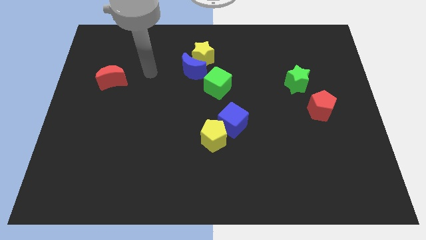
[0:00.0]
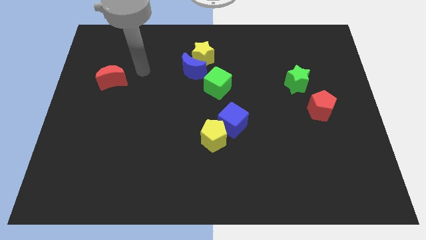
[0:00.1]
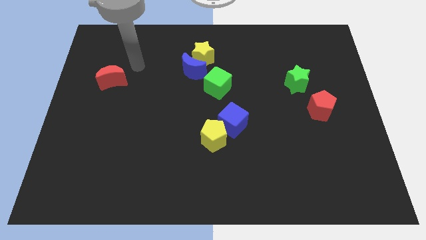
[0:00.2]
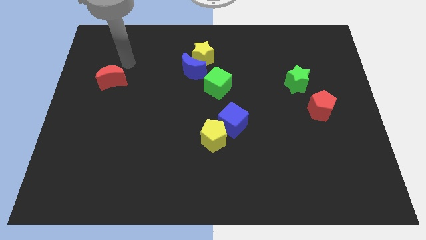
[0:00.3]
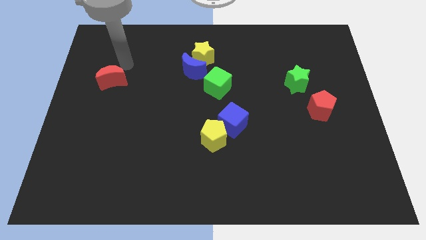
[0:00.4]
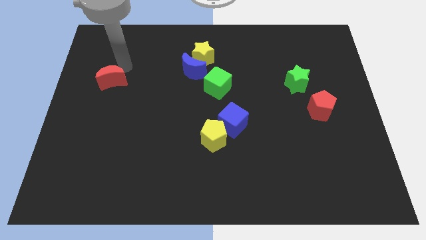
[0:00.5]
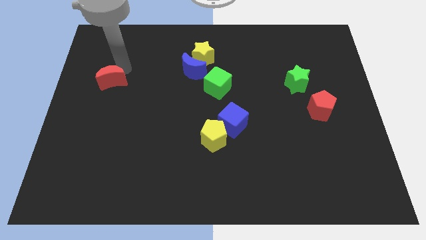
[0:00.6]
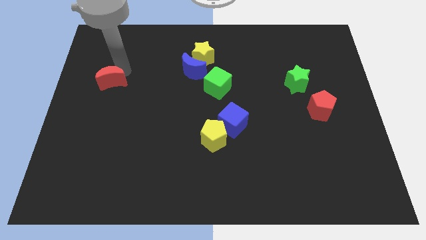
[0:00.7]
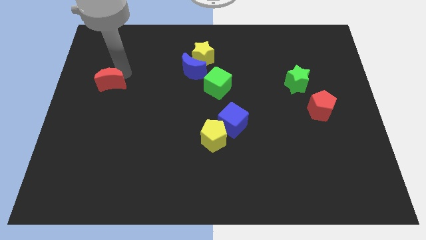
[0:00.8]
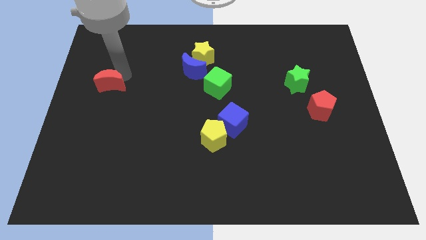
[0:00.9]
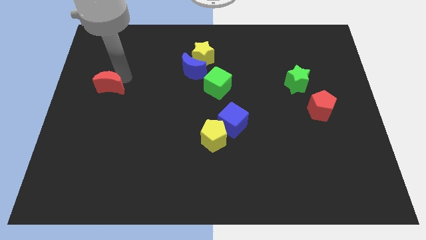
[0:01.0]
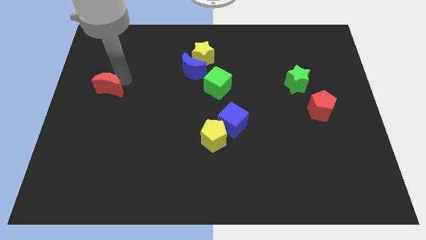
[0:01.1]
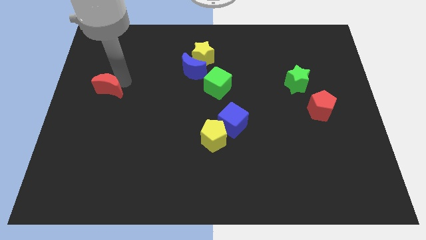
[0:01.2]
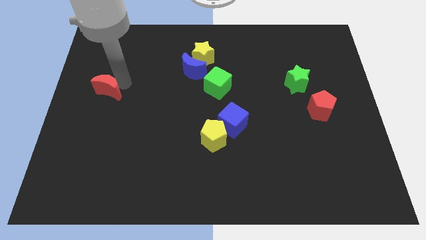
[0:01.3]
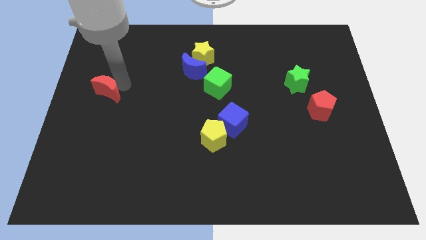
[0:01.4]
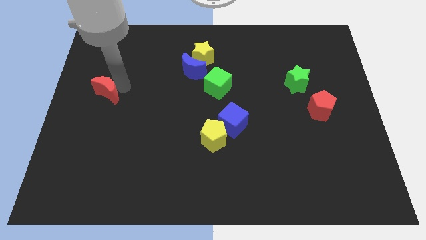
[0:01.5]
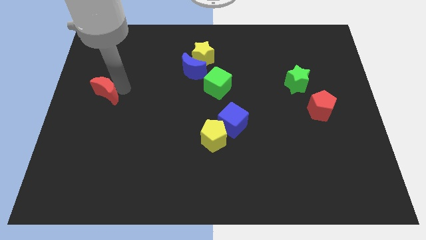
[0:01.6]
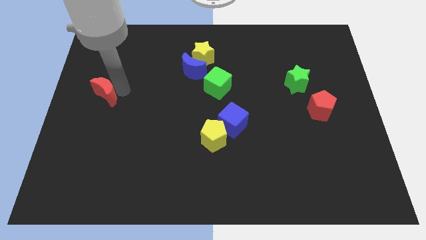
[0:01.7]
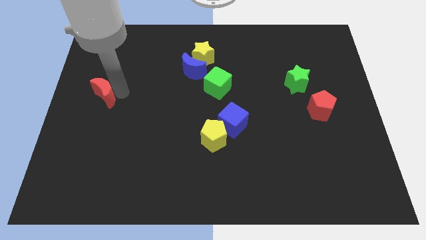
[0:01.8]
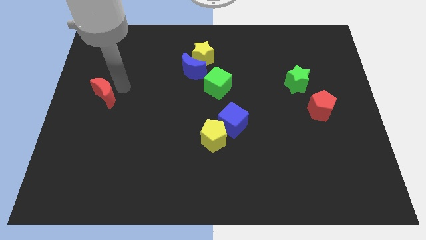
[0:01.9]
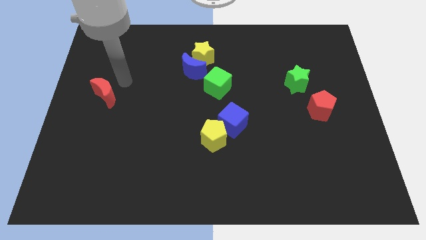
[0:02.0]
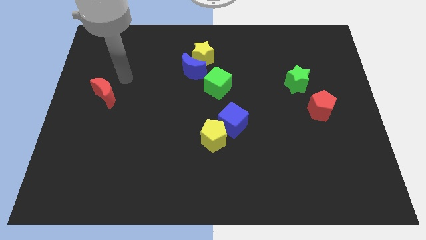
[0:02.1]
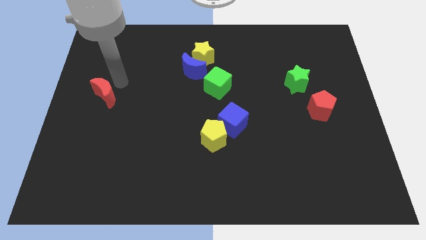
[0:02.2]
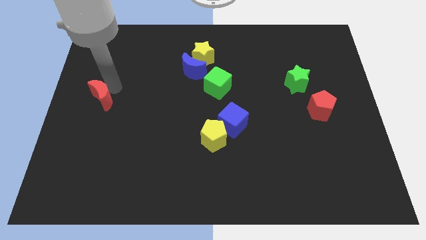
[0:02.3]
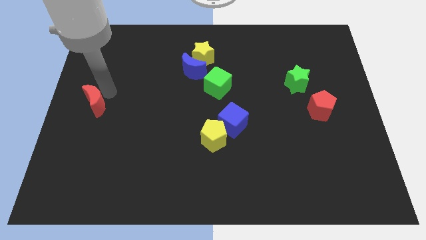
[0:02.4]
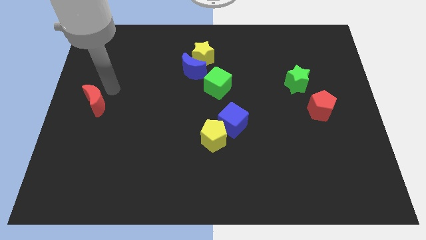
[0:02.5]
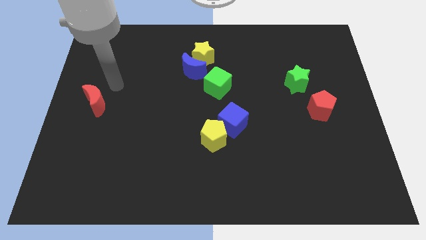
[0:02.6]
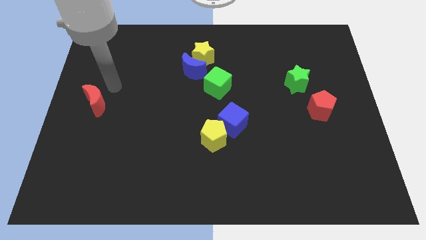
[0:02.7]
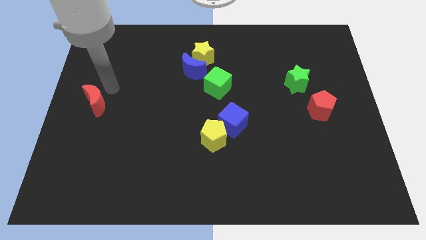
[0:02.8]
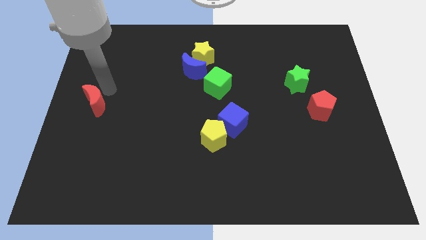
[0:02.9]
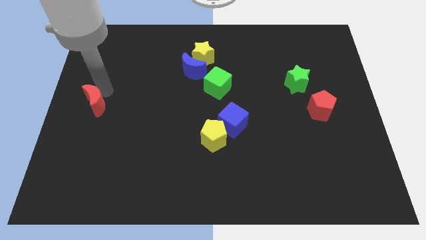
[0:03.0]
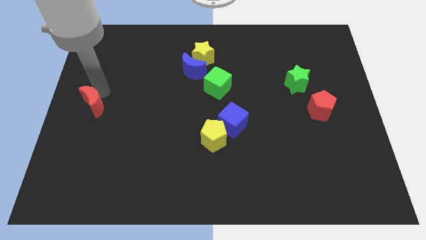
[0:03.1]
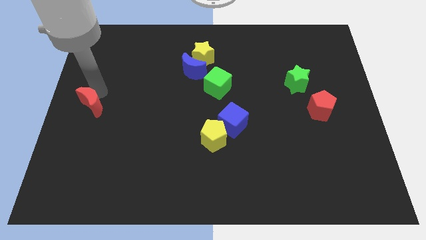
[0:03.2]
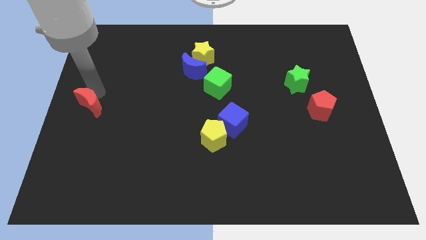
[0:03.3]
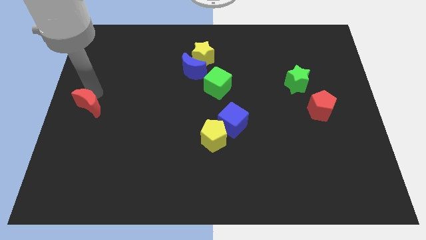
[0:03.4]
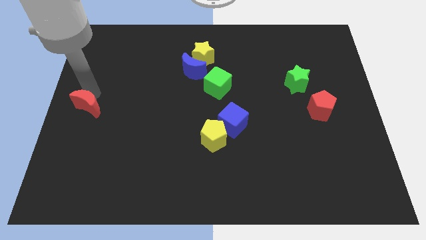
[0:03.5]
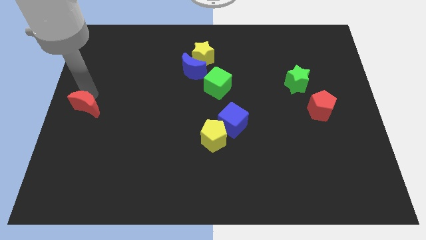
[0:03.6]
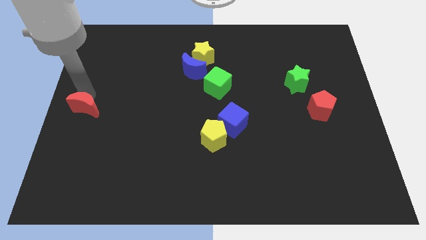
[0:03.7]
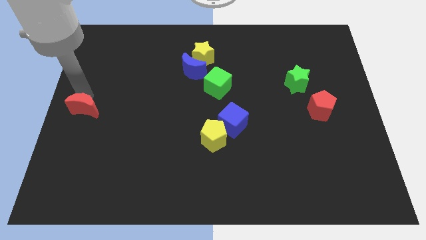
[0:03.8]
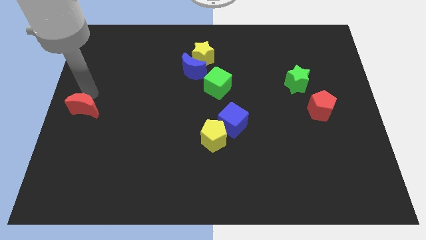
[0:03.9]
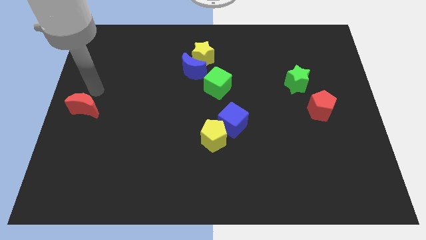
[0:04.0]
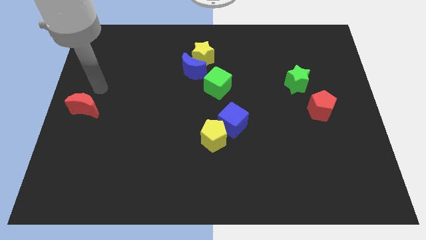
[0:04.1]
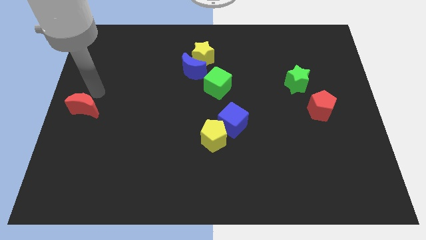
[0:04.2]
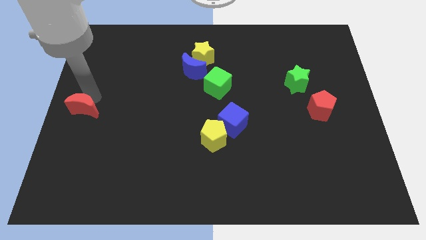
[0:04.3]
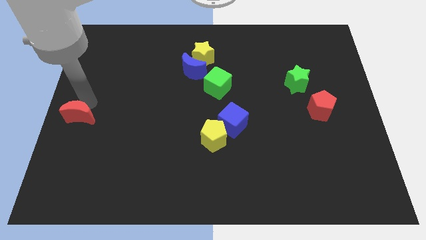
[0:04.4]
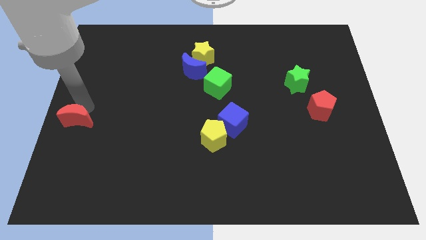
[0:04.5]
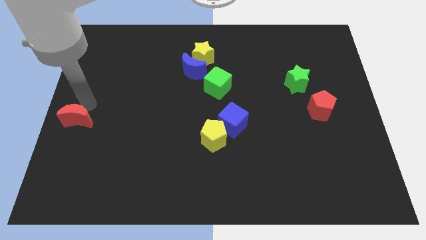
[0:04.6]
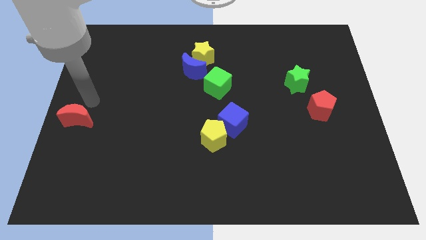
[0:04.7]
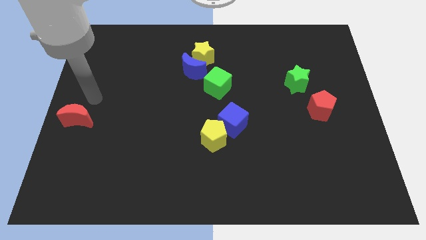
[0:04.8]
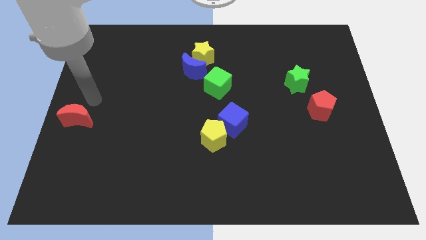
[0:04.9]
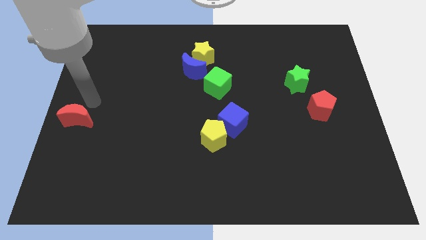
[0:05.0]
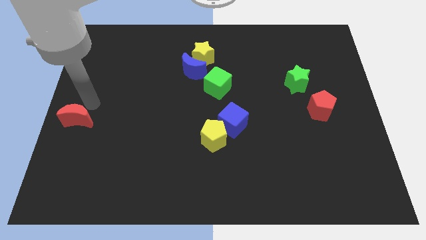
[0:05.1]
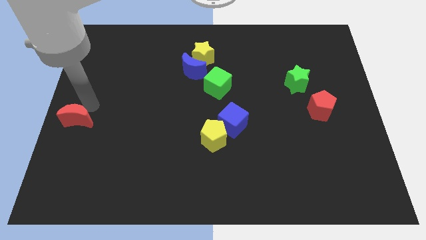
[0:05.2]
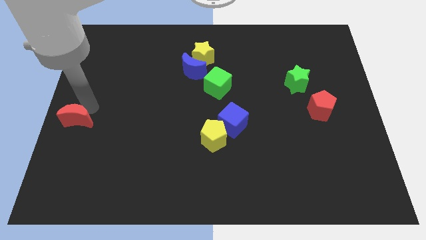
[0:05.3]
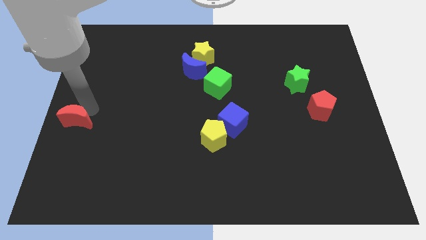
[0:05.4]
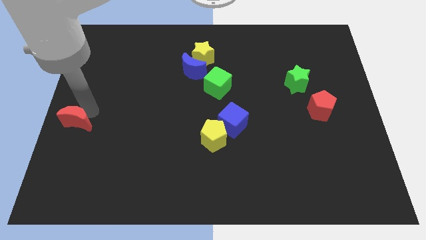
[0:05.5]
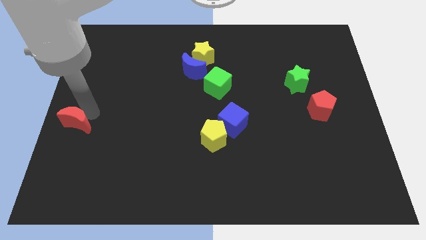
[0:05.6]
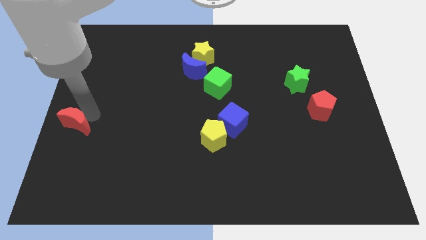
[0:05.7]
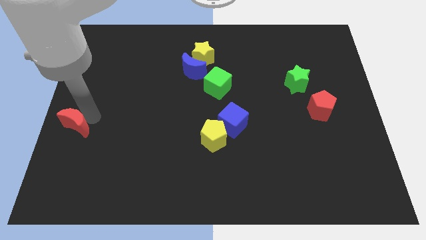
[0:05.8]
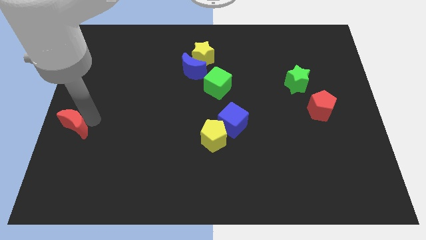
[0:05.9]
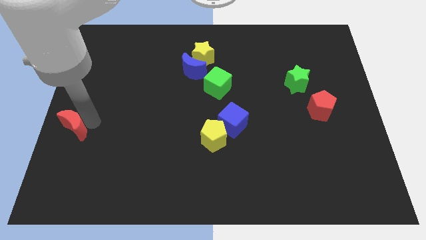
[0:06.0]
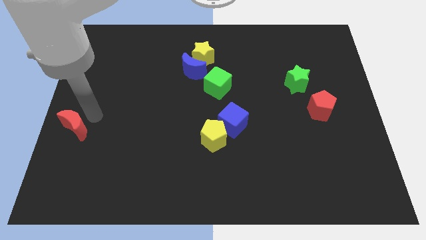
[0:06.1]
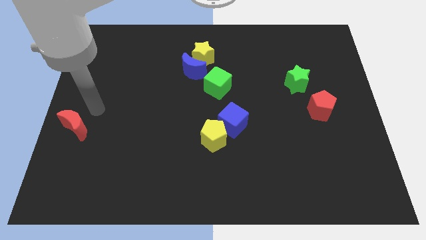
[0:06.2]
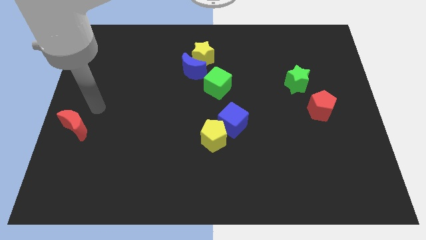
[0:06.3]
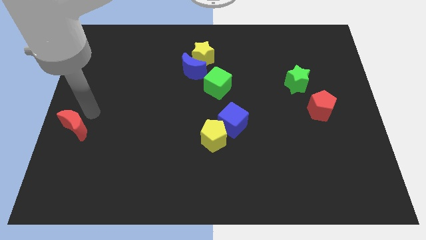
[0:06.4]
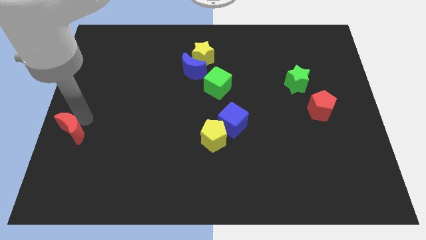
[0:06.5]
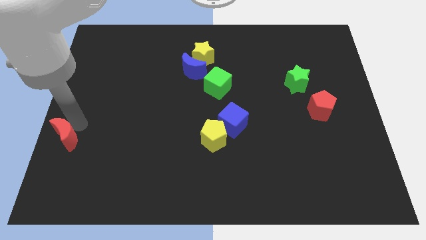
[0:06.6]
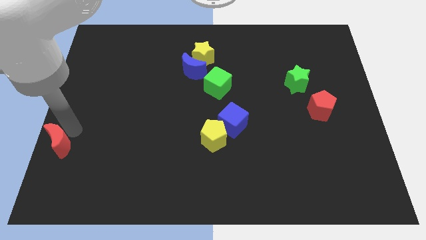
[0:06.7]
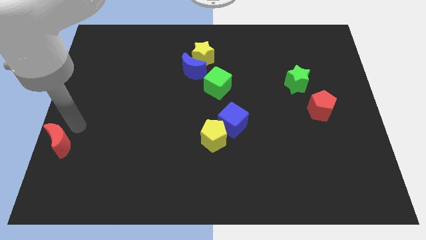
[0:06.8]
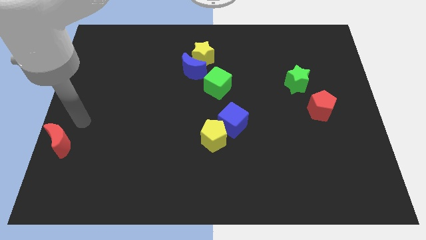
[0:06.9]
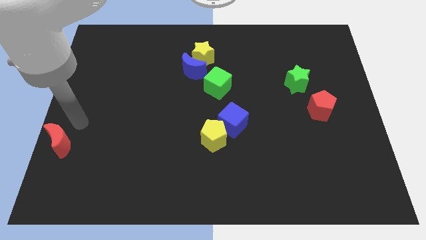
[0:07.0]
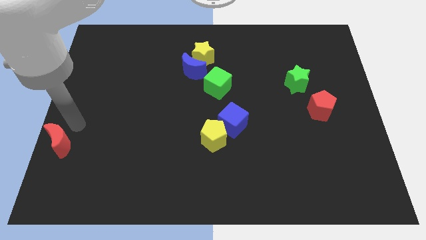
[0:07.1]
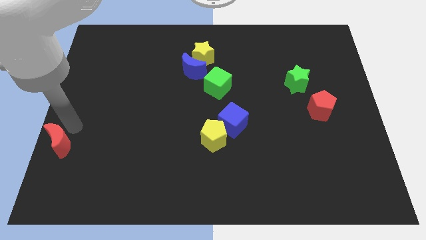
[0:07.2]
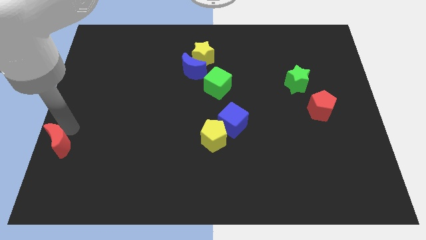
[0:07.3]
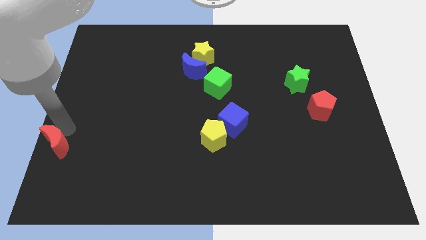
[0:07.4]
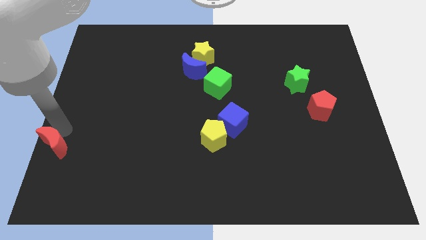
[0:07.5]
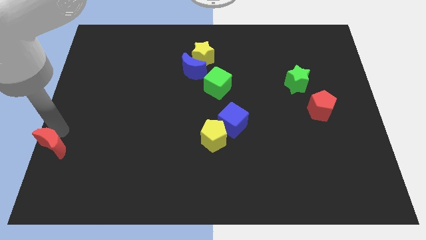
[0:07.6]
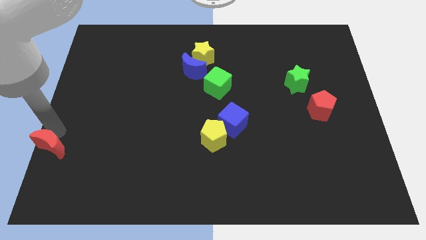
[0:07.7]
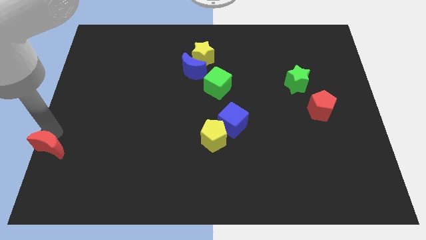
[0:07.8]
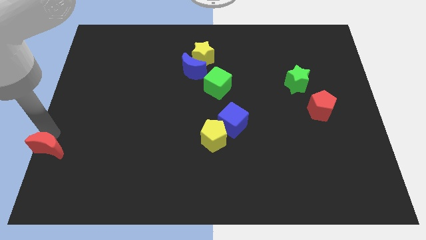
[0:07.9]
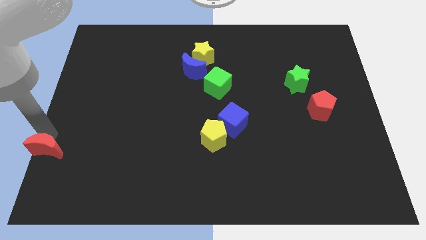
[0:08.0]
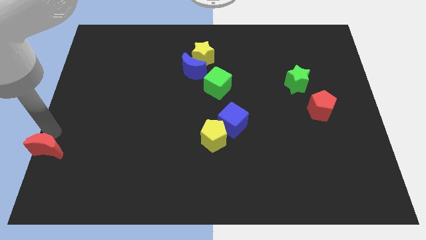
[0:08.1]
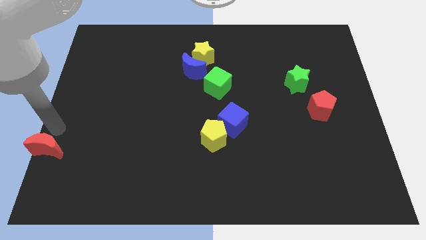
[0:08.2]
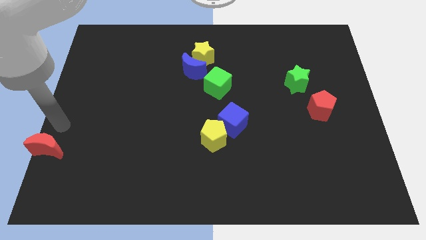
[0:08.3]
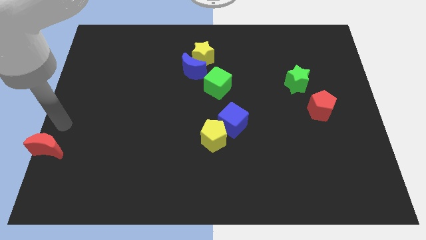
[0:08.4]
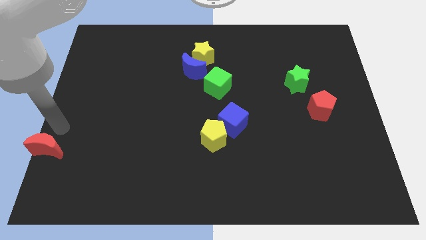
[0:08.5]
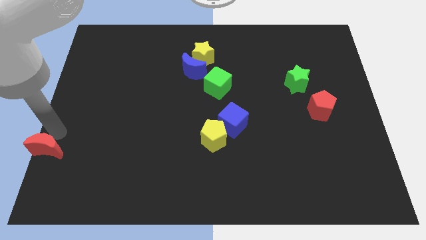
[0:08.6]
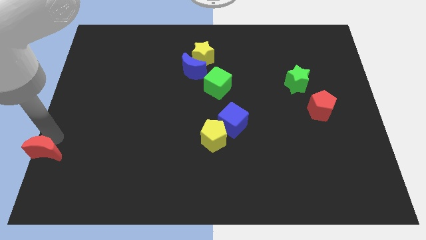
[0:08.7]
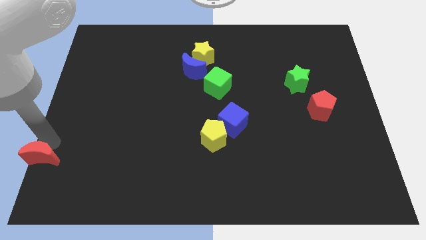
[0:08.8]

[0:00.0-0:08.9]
push the red moon to the lower left corner
